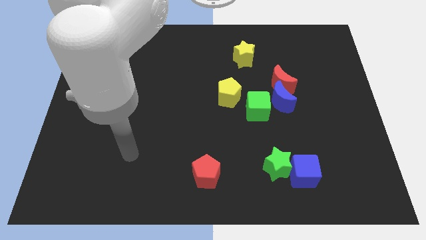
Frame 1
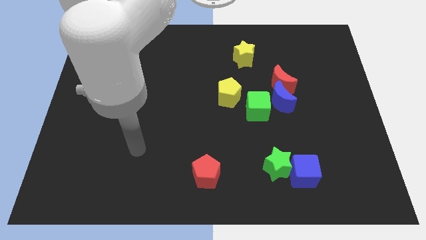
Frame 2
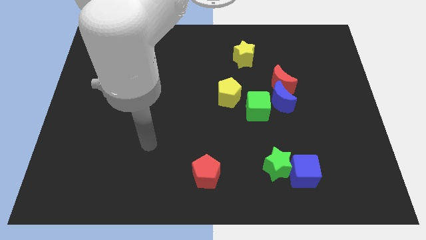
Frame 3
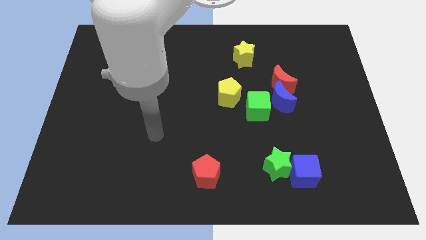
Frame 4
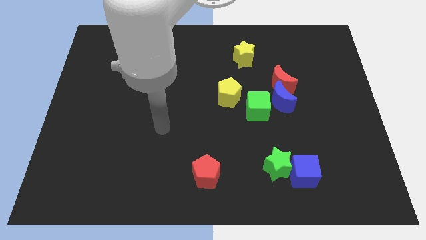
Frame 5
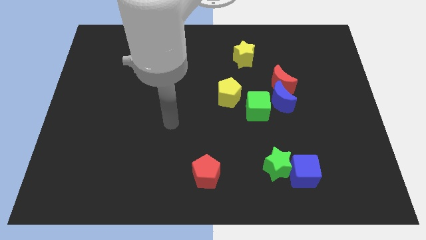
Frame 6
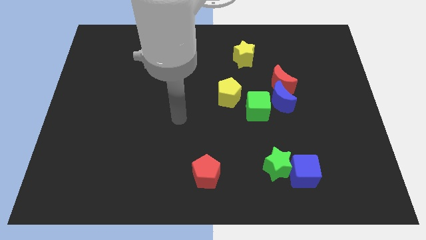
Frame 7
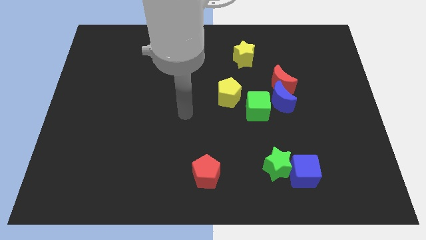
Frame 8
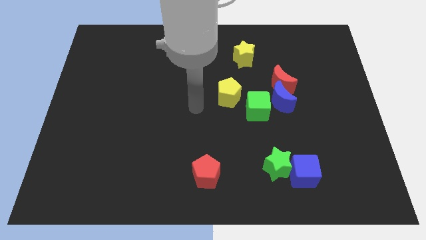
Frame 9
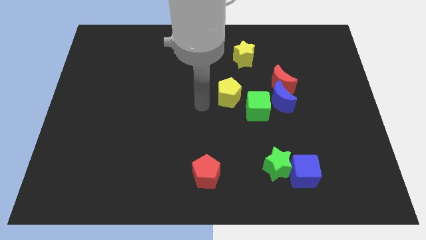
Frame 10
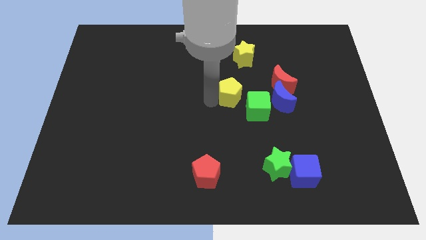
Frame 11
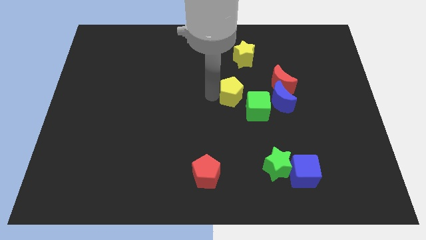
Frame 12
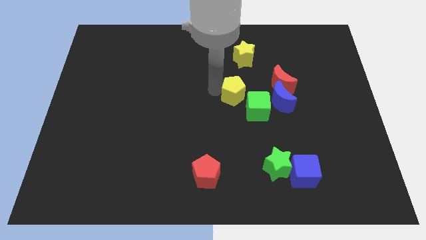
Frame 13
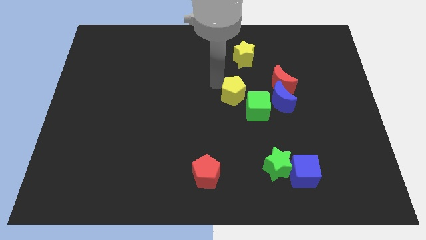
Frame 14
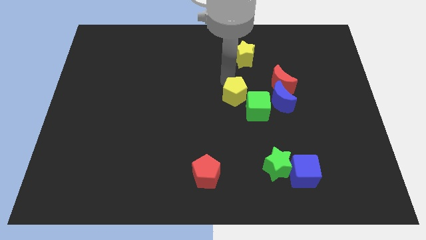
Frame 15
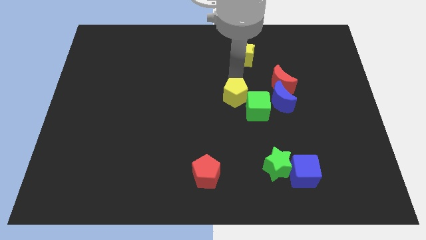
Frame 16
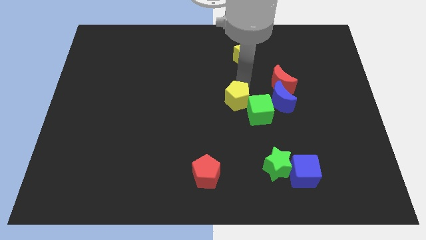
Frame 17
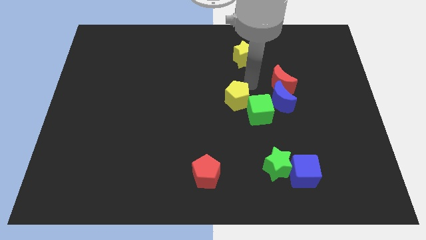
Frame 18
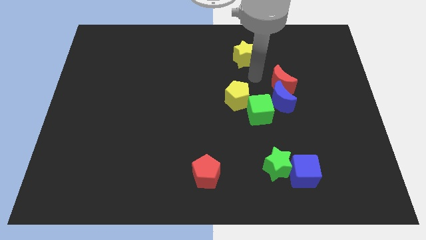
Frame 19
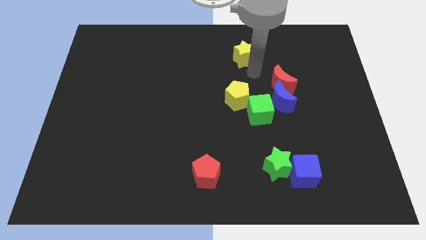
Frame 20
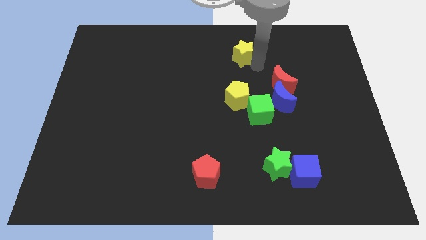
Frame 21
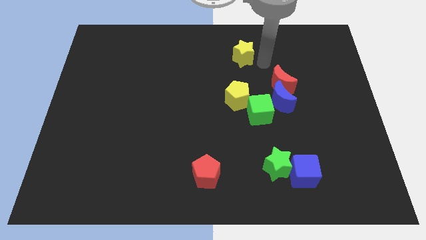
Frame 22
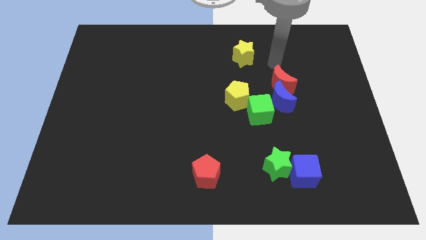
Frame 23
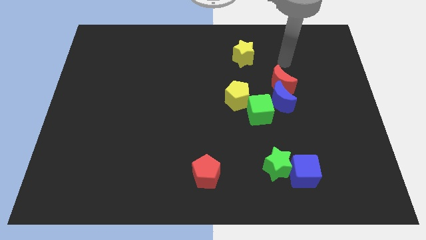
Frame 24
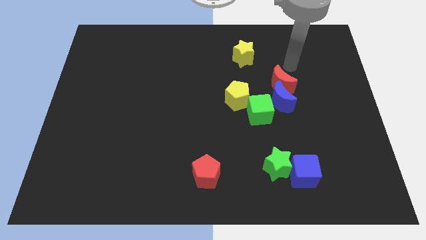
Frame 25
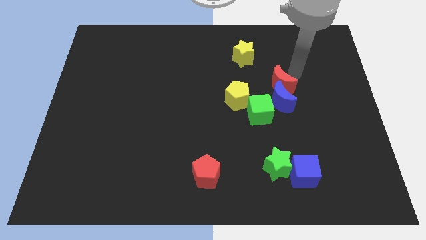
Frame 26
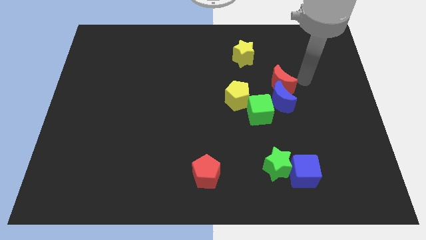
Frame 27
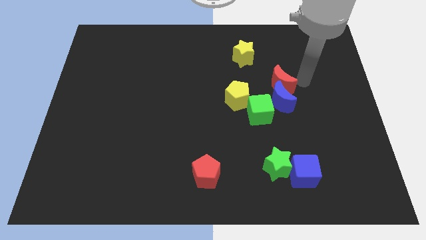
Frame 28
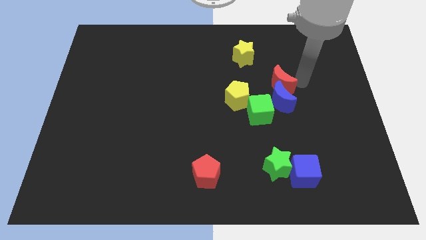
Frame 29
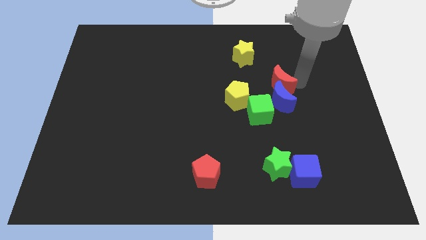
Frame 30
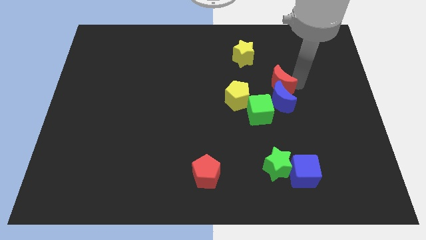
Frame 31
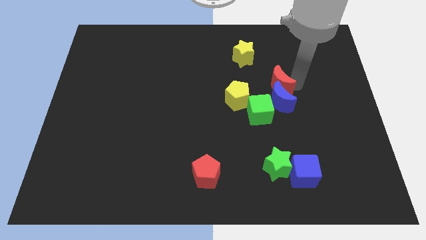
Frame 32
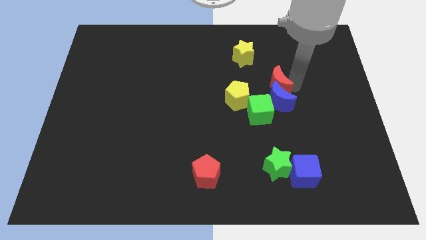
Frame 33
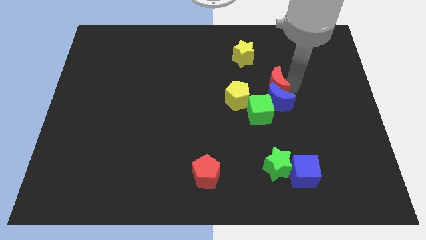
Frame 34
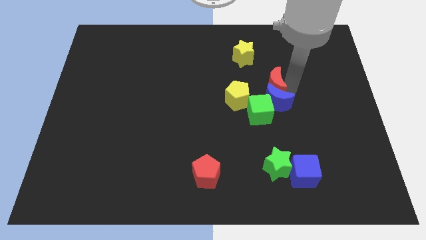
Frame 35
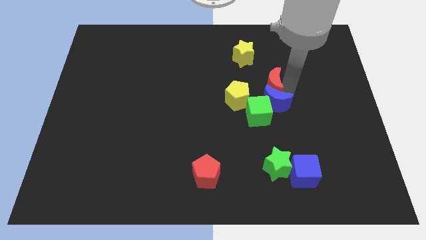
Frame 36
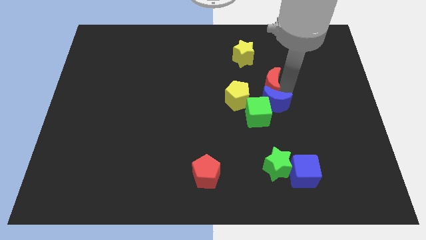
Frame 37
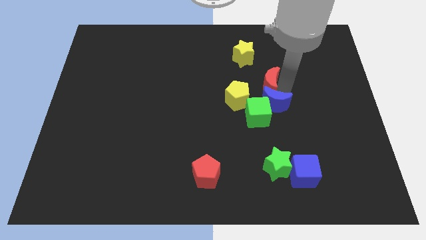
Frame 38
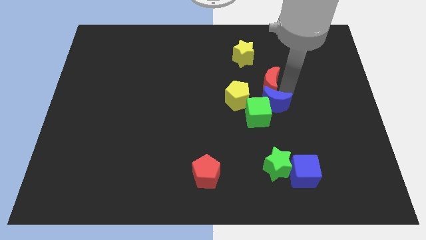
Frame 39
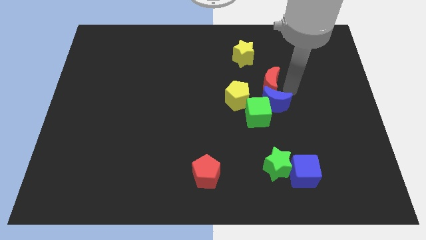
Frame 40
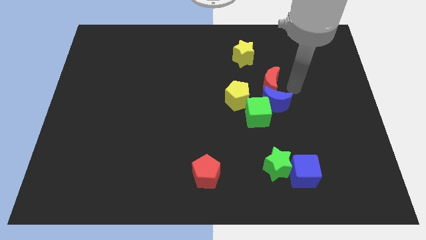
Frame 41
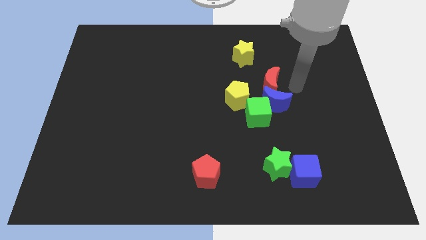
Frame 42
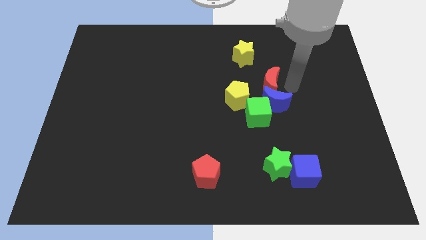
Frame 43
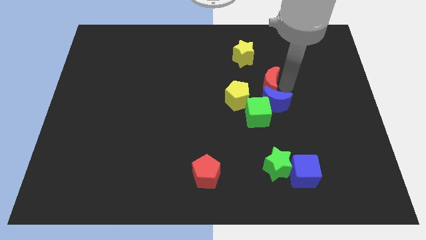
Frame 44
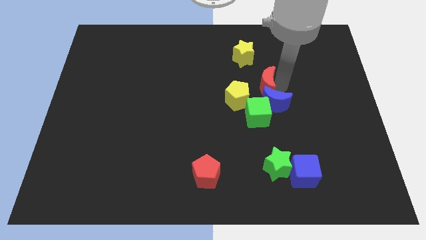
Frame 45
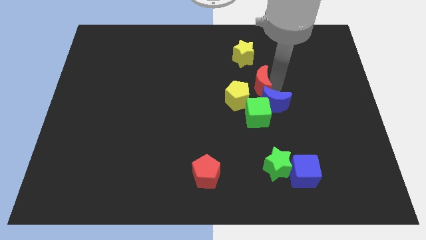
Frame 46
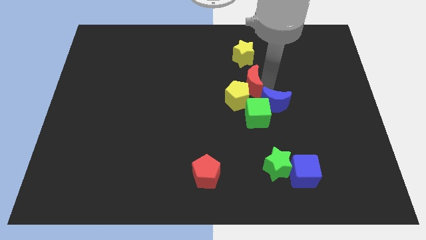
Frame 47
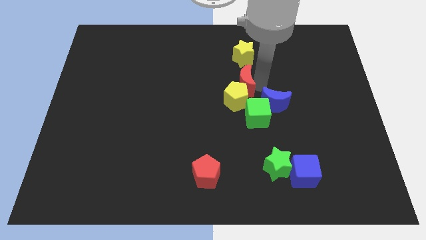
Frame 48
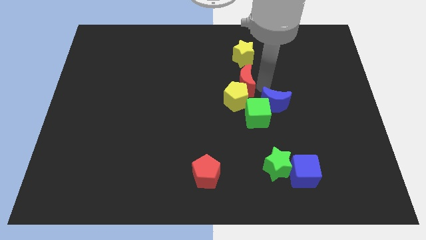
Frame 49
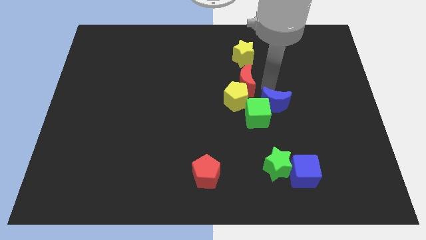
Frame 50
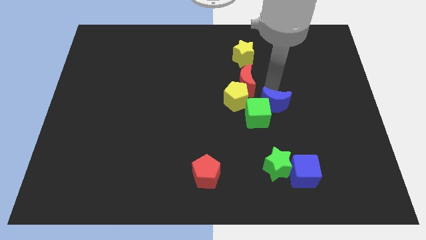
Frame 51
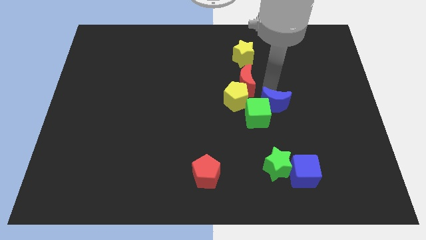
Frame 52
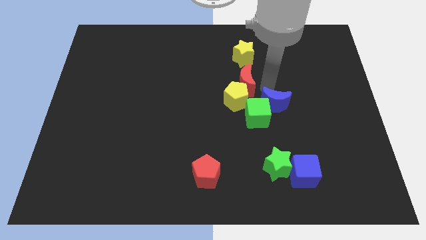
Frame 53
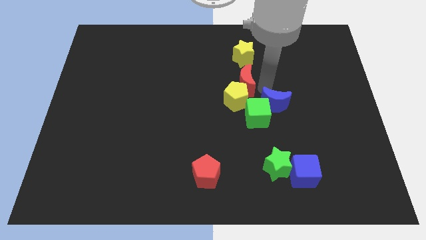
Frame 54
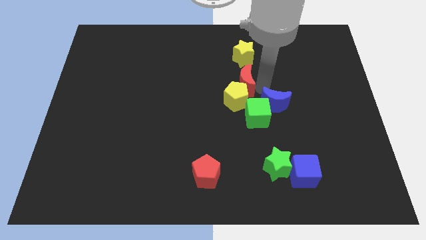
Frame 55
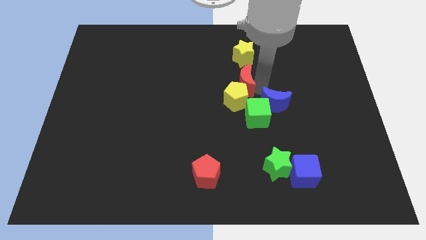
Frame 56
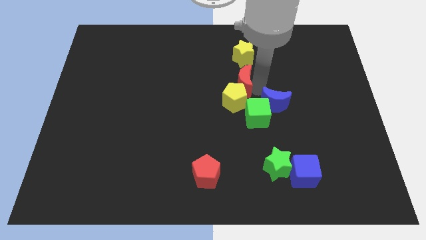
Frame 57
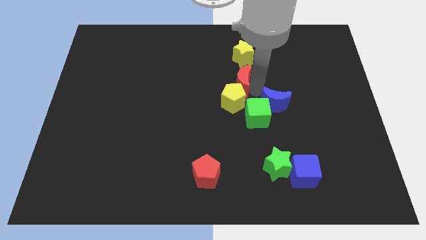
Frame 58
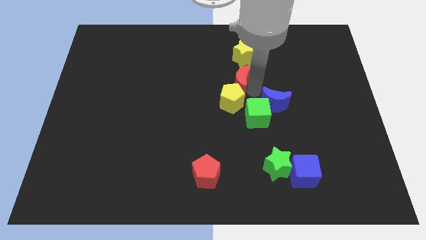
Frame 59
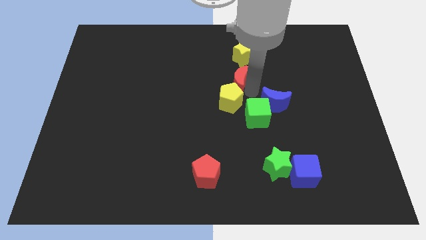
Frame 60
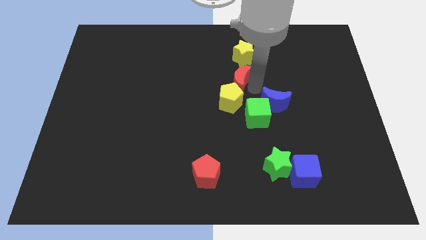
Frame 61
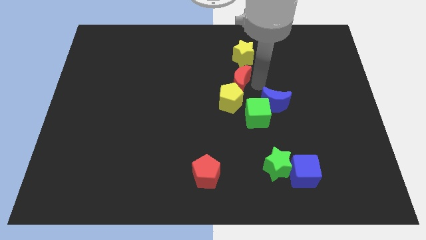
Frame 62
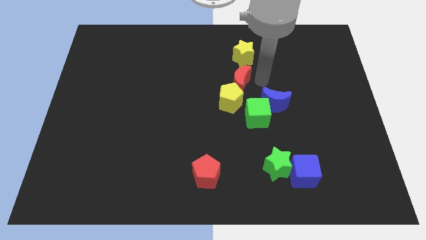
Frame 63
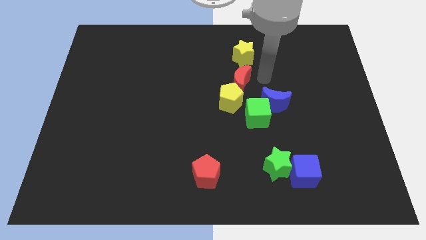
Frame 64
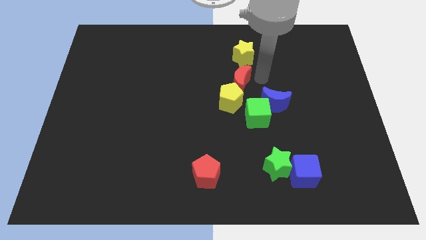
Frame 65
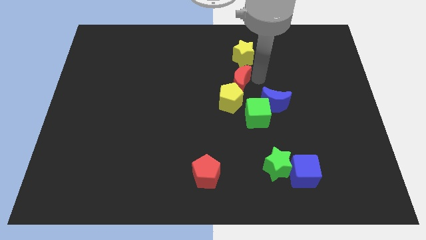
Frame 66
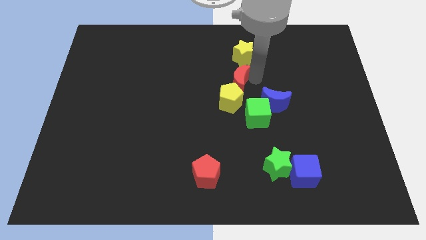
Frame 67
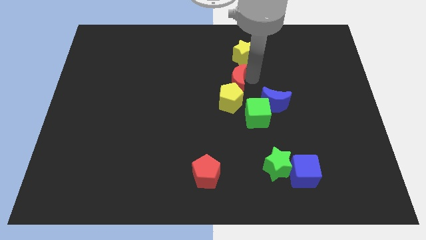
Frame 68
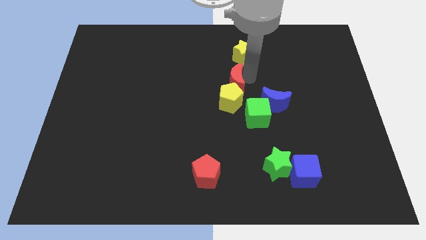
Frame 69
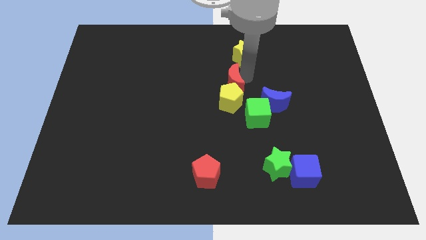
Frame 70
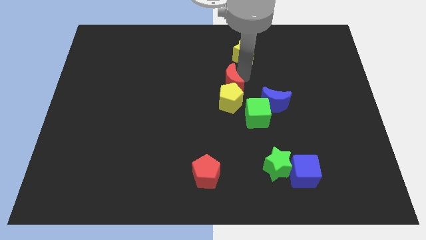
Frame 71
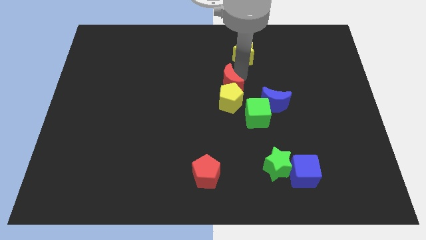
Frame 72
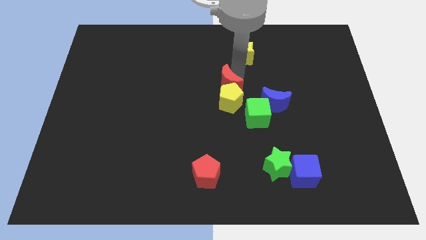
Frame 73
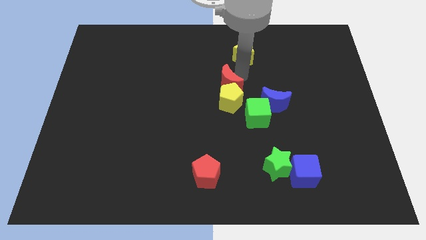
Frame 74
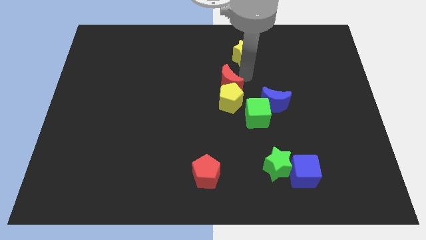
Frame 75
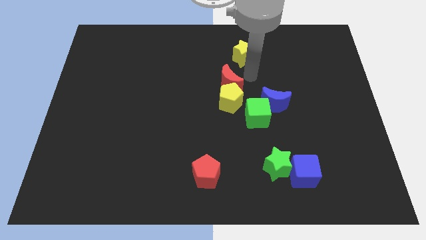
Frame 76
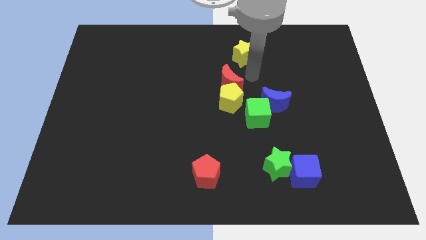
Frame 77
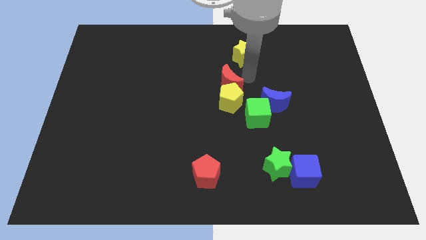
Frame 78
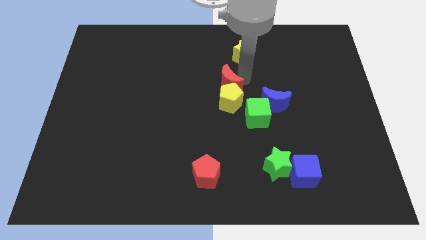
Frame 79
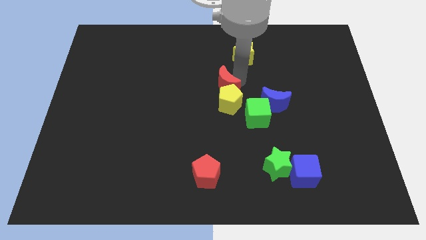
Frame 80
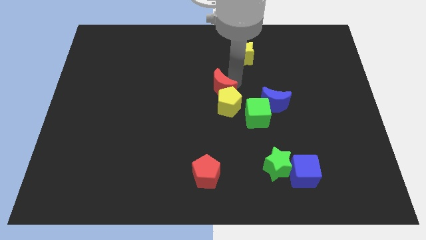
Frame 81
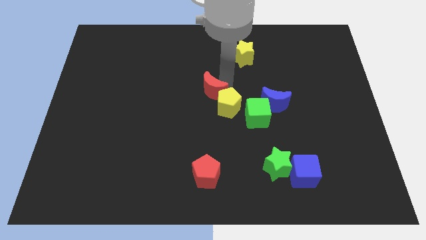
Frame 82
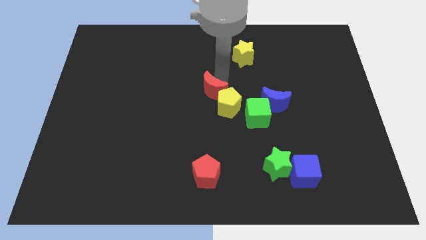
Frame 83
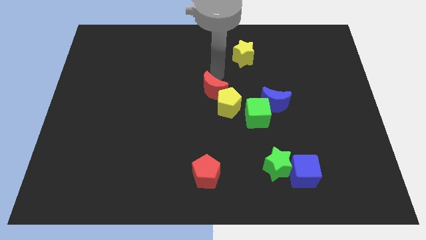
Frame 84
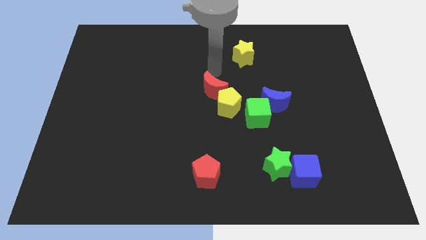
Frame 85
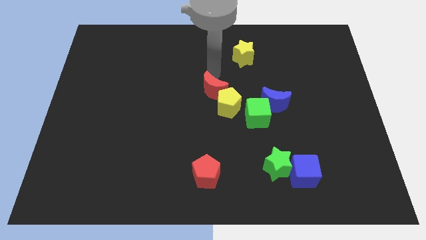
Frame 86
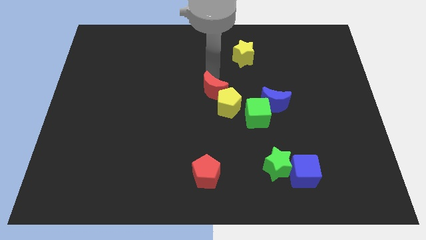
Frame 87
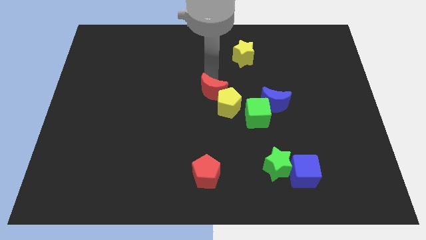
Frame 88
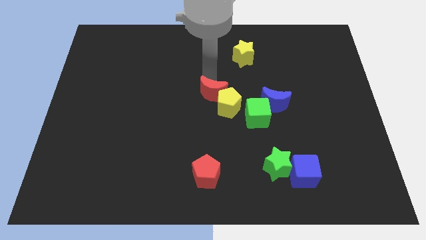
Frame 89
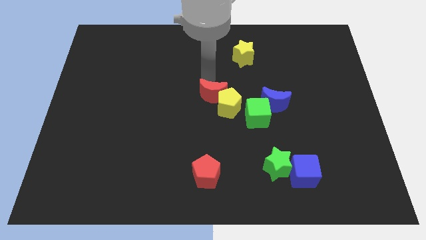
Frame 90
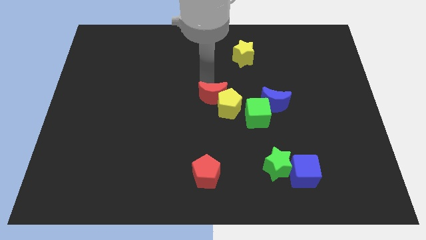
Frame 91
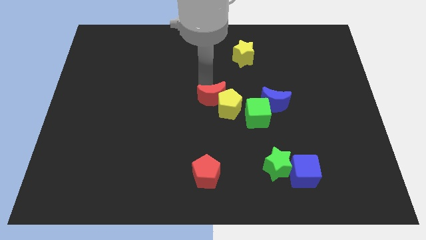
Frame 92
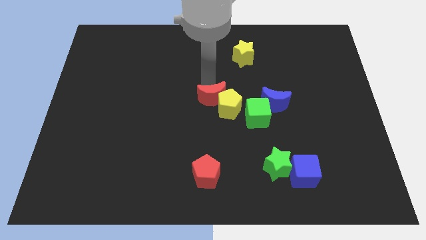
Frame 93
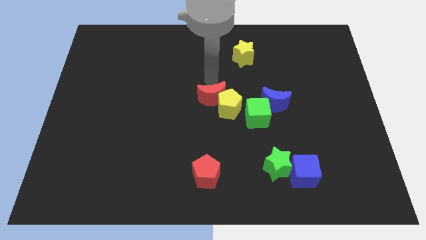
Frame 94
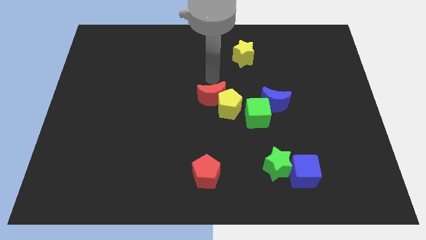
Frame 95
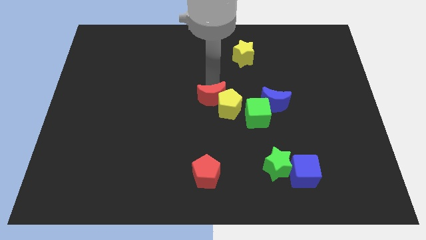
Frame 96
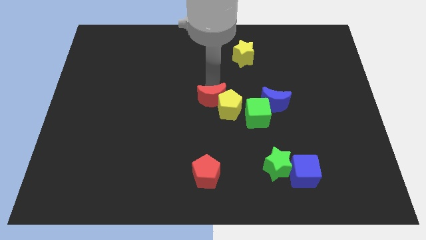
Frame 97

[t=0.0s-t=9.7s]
move the red moon just left of the green cube
